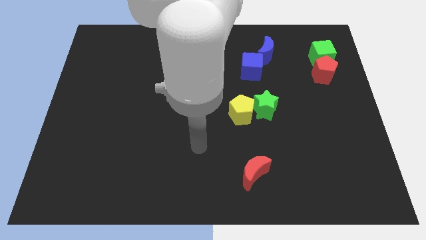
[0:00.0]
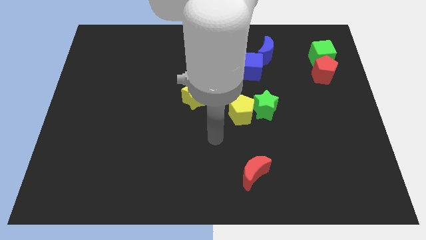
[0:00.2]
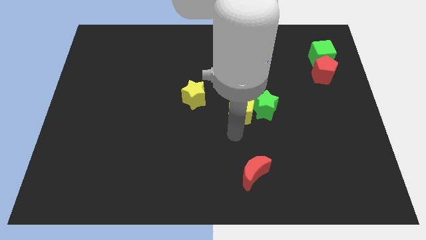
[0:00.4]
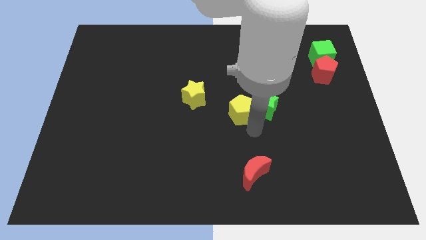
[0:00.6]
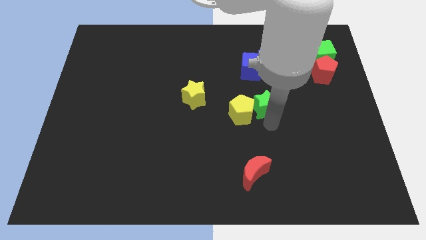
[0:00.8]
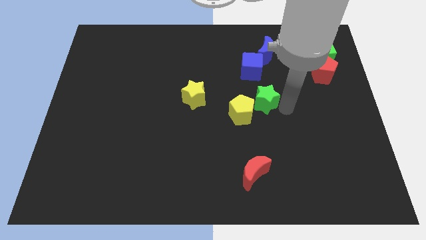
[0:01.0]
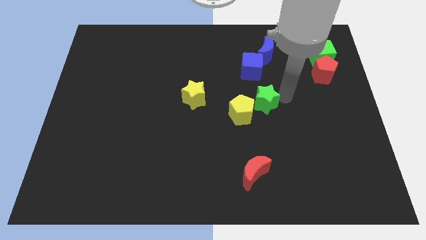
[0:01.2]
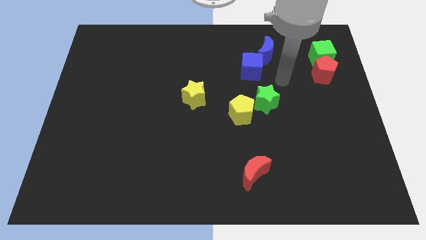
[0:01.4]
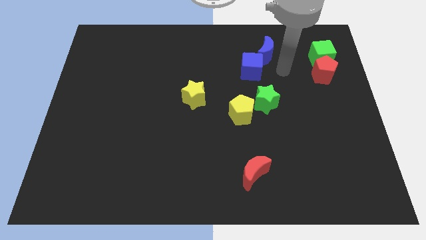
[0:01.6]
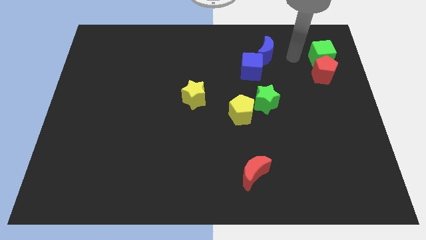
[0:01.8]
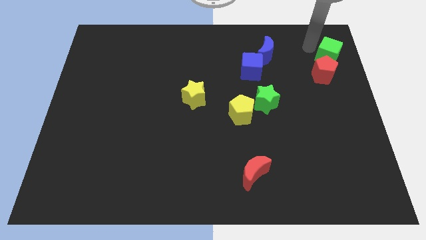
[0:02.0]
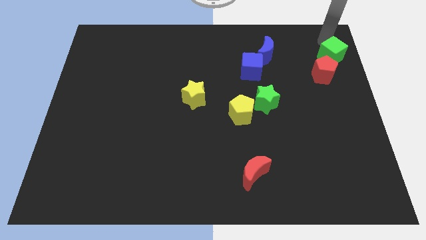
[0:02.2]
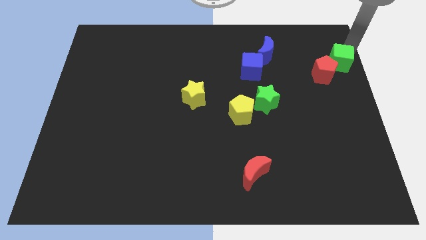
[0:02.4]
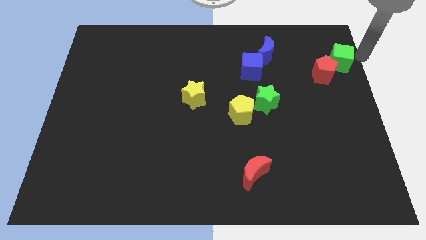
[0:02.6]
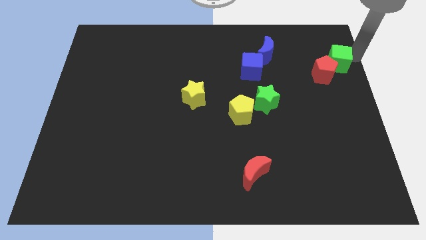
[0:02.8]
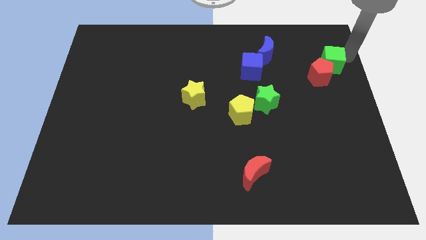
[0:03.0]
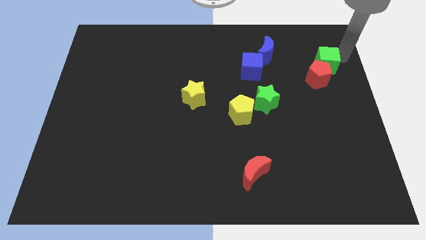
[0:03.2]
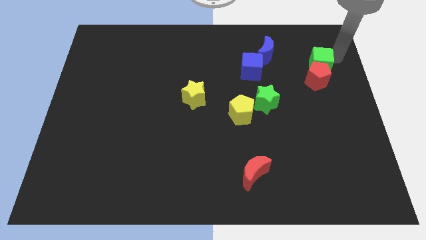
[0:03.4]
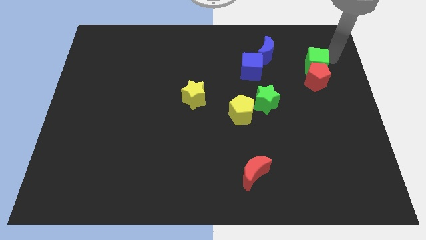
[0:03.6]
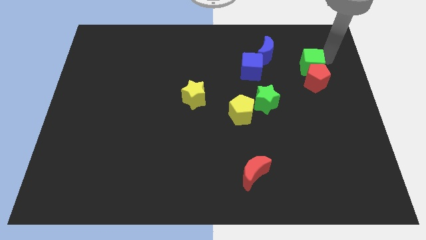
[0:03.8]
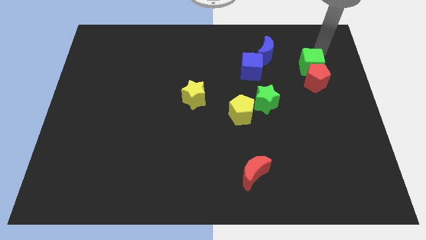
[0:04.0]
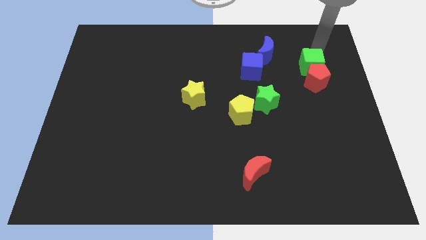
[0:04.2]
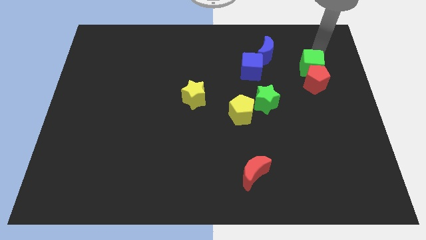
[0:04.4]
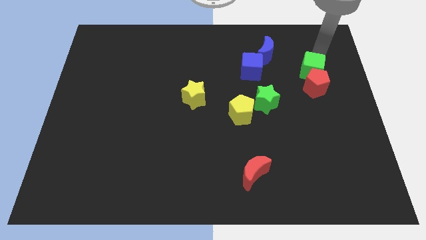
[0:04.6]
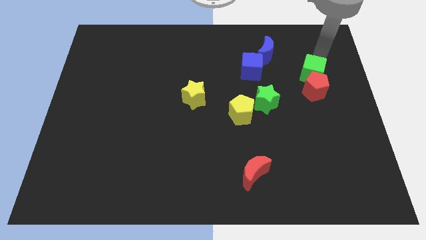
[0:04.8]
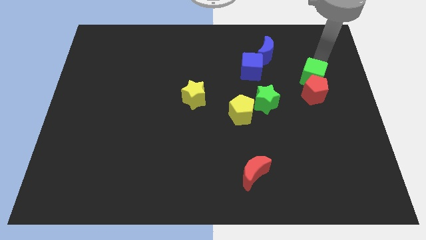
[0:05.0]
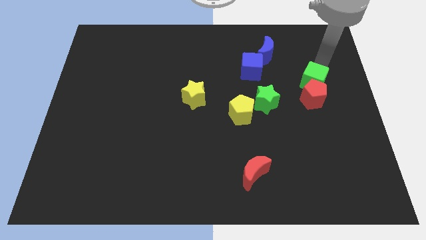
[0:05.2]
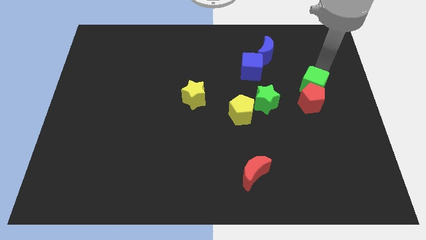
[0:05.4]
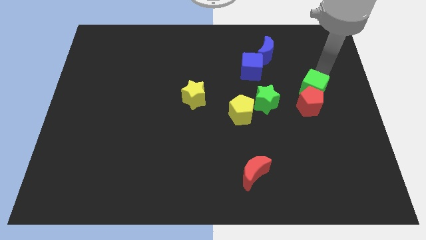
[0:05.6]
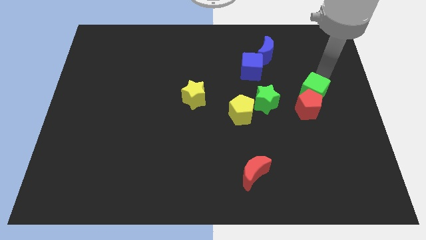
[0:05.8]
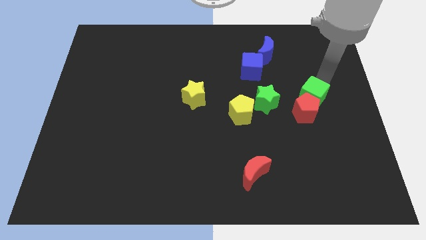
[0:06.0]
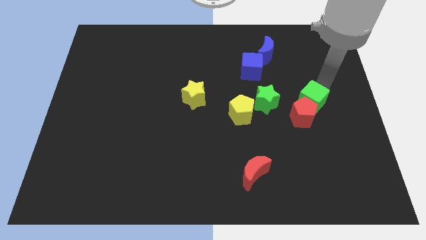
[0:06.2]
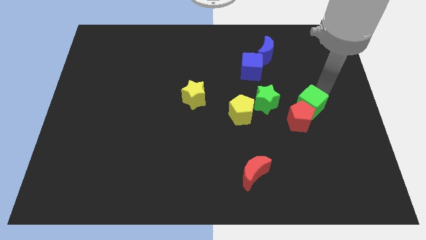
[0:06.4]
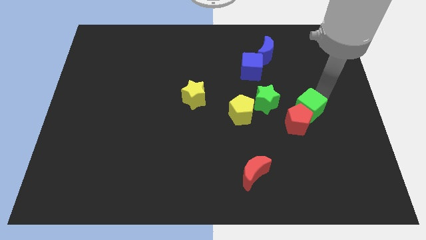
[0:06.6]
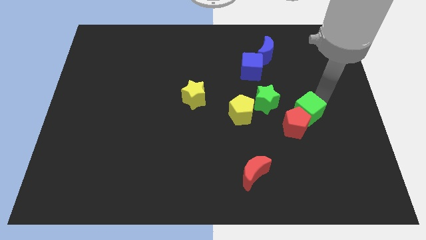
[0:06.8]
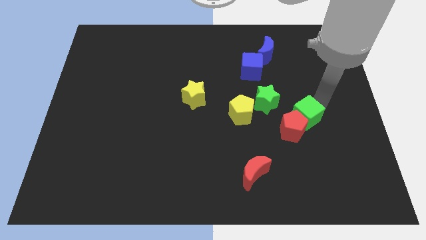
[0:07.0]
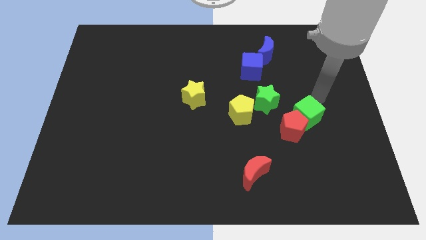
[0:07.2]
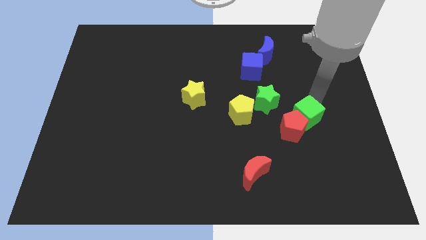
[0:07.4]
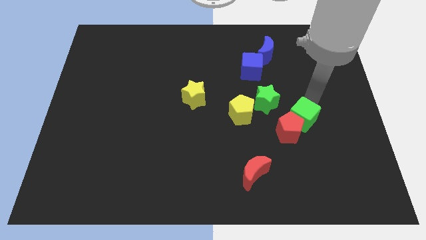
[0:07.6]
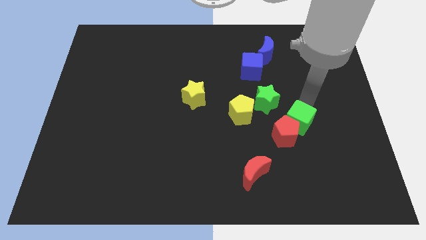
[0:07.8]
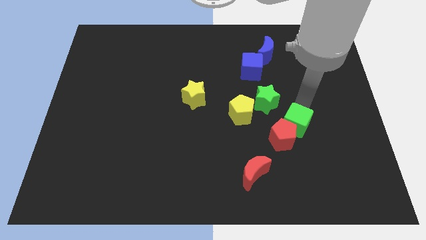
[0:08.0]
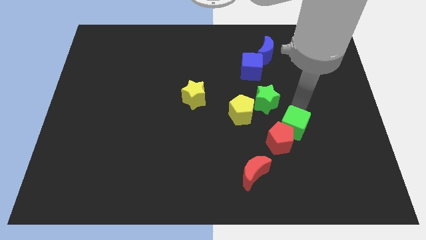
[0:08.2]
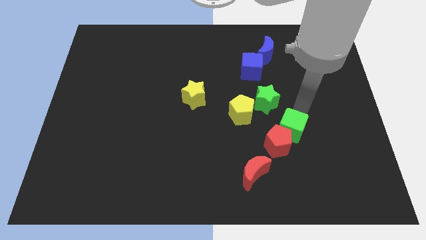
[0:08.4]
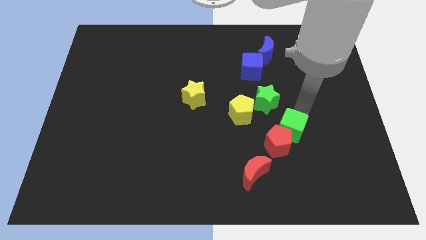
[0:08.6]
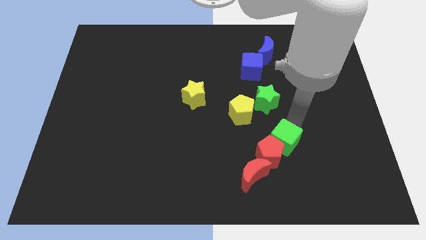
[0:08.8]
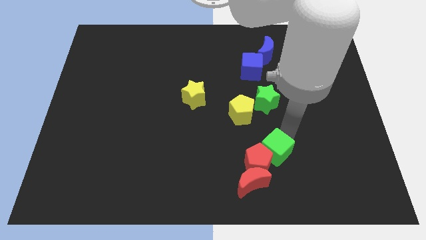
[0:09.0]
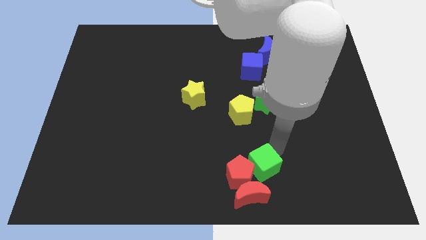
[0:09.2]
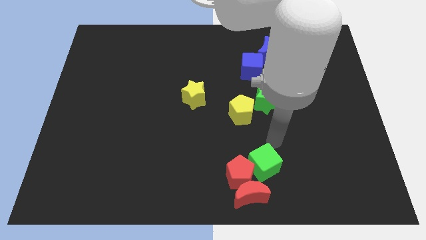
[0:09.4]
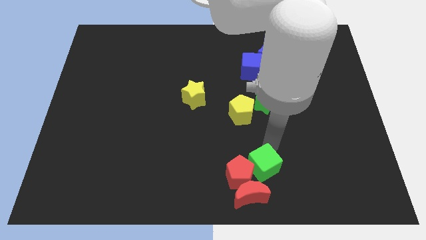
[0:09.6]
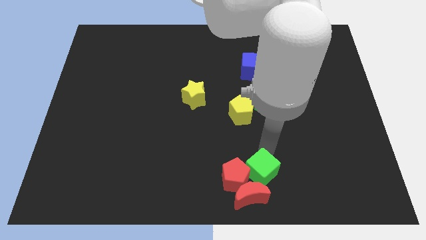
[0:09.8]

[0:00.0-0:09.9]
slide the green cube next to the red moon

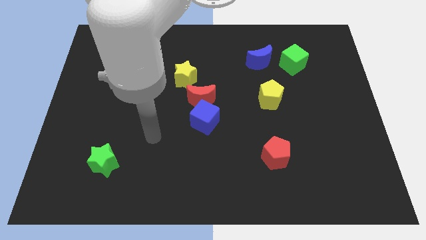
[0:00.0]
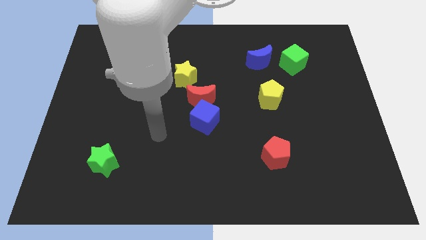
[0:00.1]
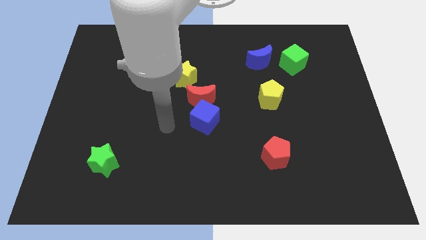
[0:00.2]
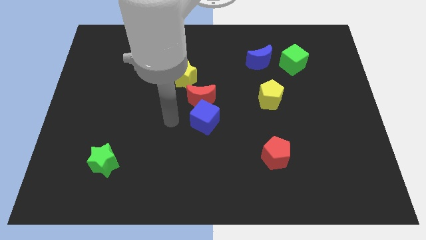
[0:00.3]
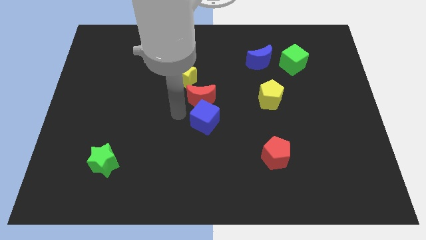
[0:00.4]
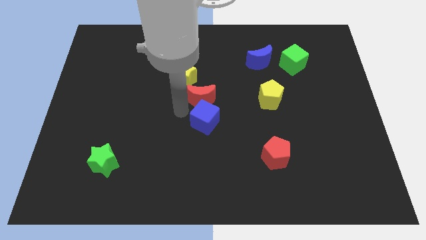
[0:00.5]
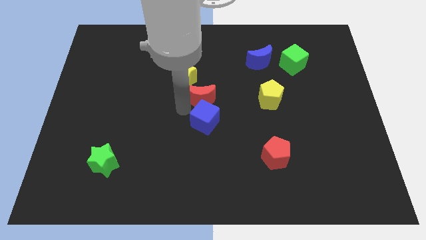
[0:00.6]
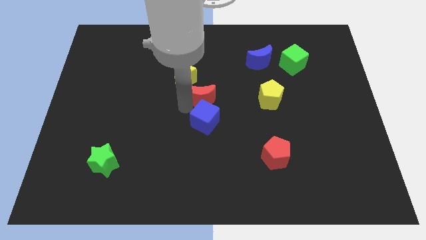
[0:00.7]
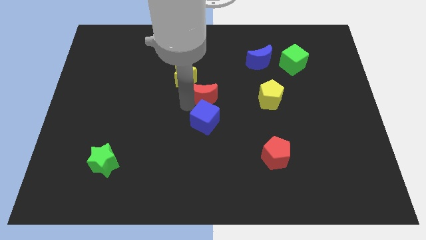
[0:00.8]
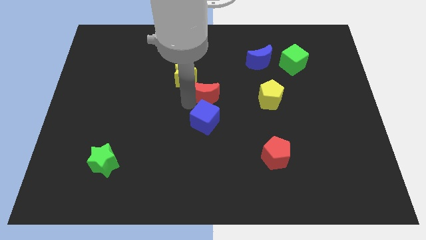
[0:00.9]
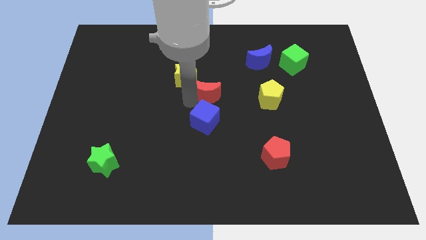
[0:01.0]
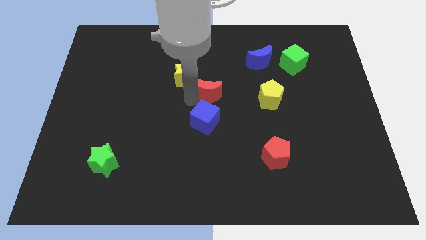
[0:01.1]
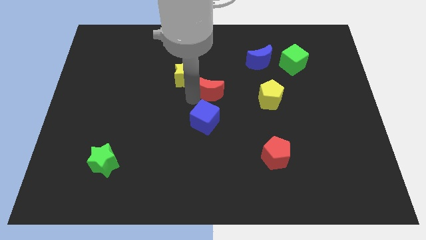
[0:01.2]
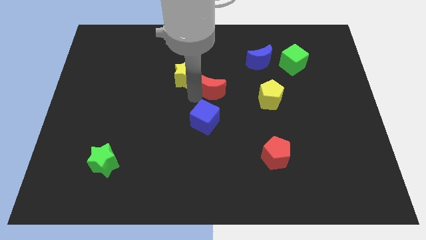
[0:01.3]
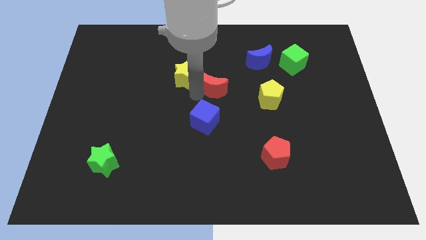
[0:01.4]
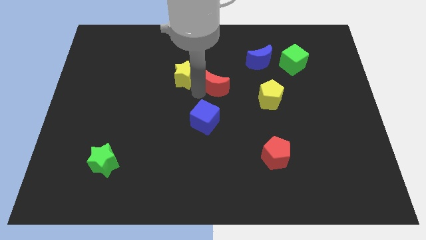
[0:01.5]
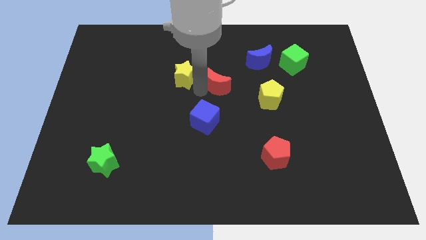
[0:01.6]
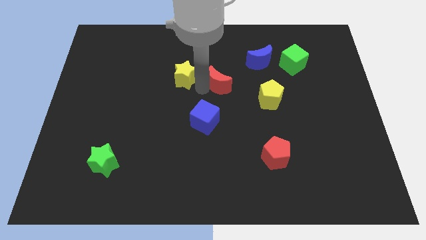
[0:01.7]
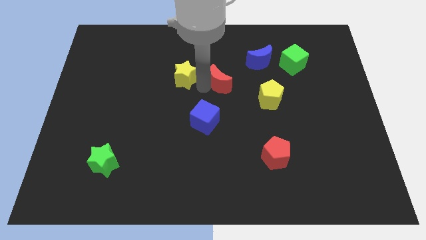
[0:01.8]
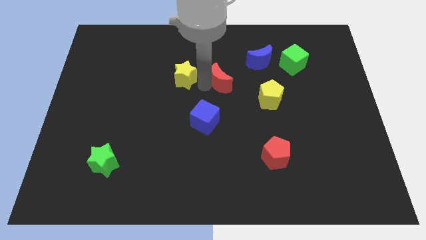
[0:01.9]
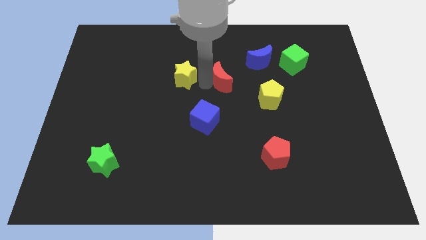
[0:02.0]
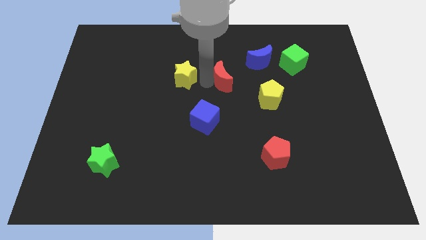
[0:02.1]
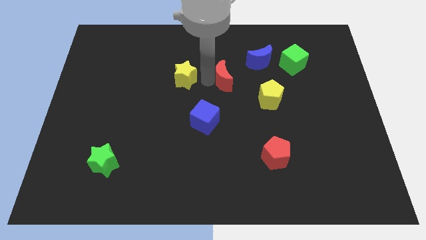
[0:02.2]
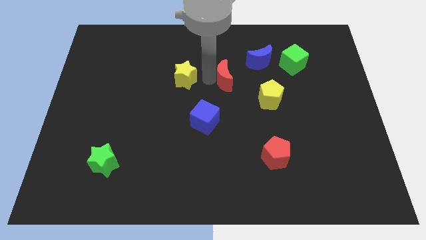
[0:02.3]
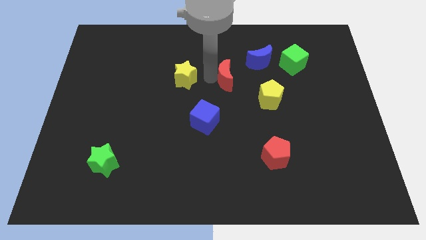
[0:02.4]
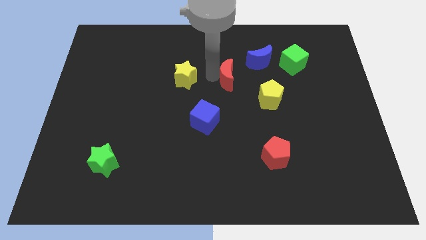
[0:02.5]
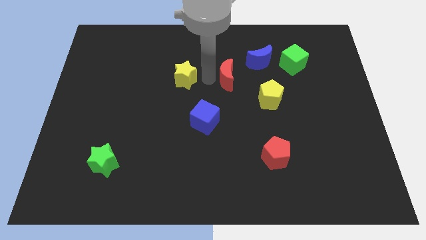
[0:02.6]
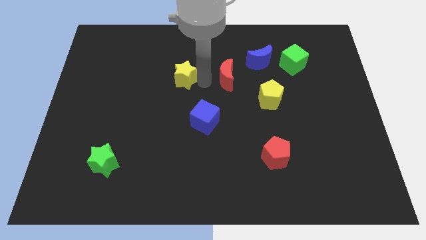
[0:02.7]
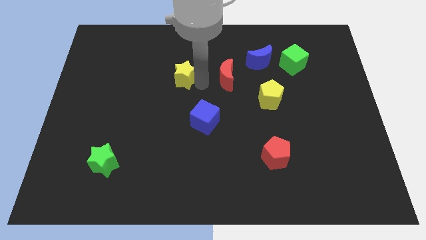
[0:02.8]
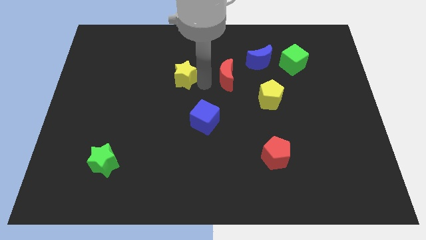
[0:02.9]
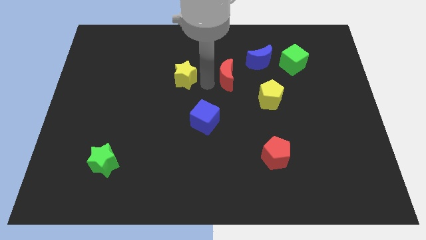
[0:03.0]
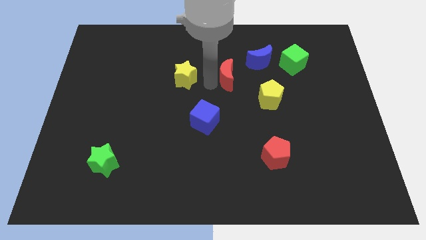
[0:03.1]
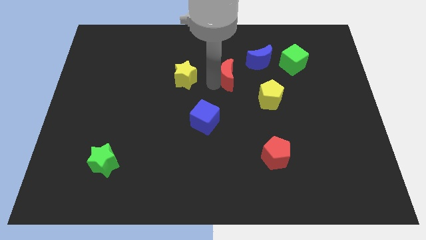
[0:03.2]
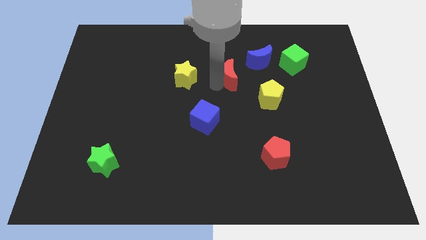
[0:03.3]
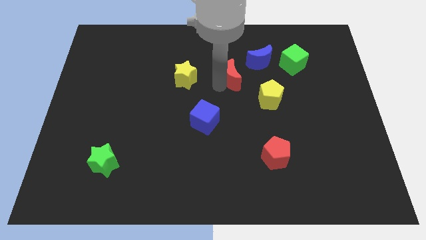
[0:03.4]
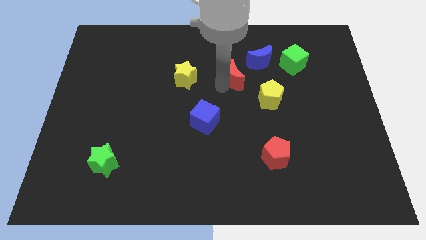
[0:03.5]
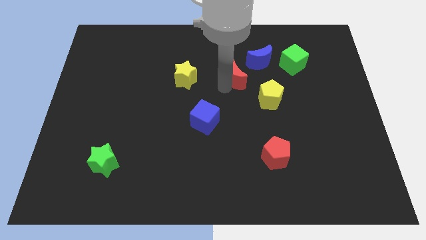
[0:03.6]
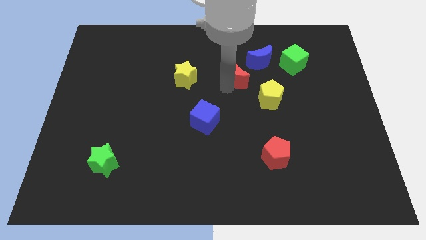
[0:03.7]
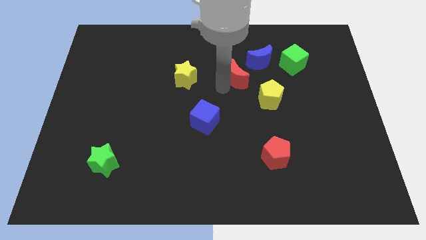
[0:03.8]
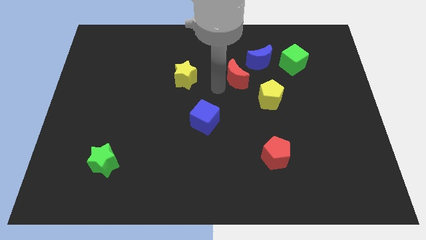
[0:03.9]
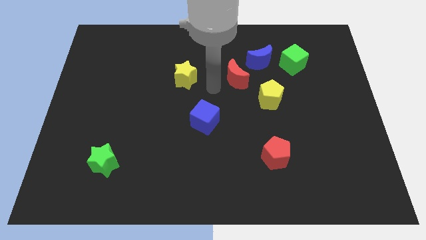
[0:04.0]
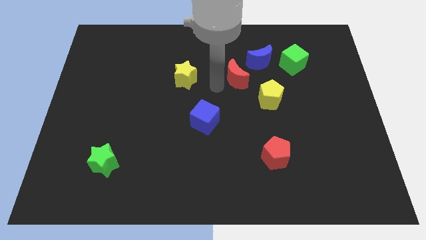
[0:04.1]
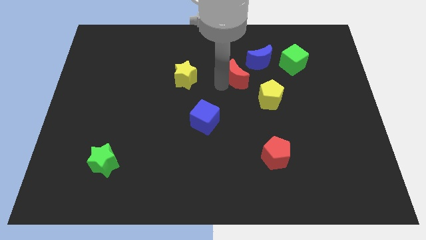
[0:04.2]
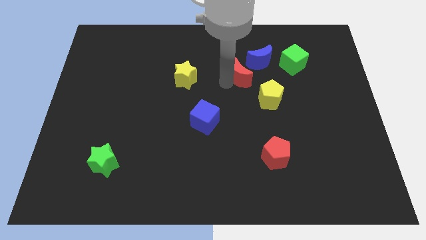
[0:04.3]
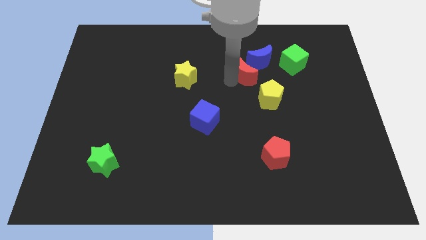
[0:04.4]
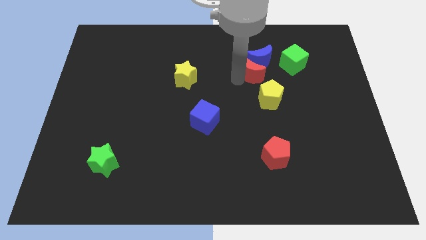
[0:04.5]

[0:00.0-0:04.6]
move the red moon next to the blue moon
